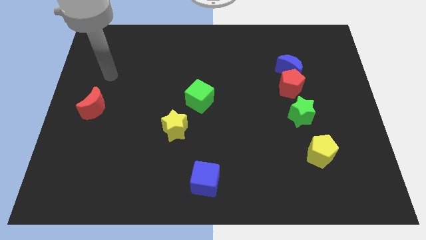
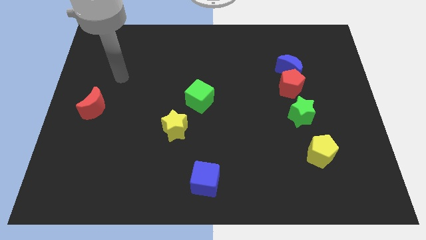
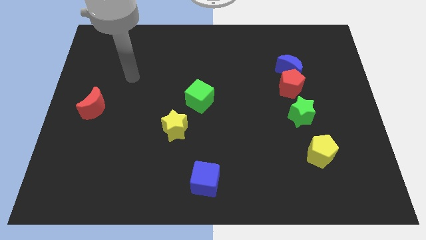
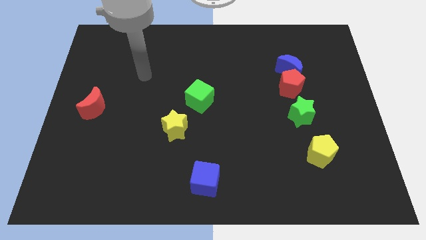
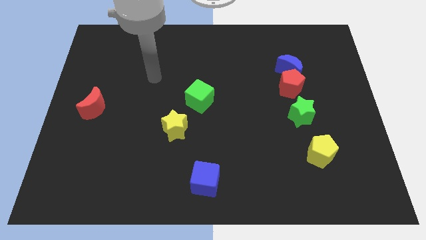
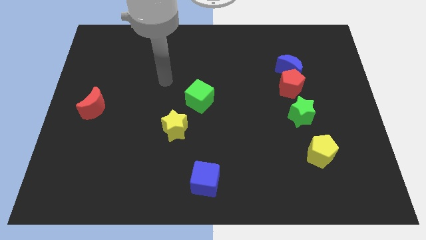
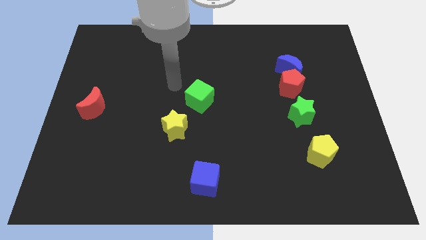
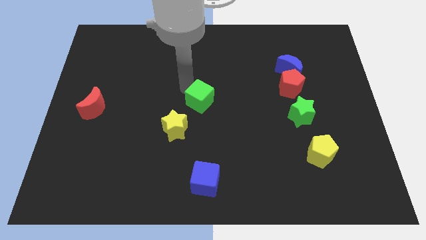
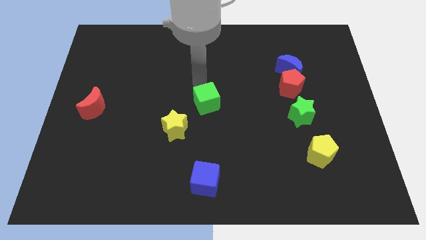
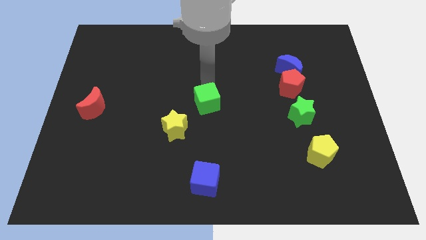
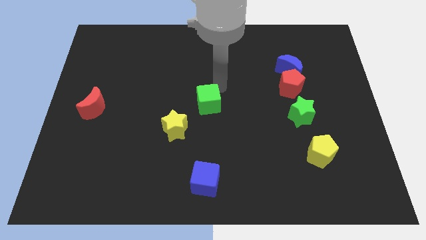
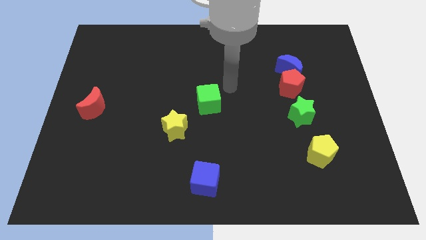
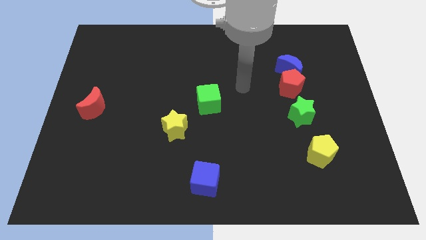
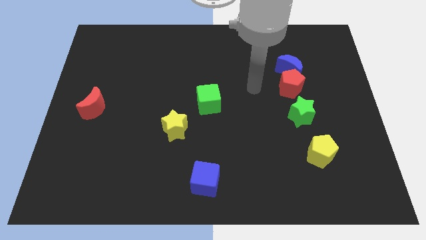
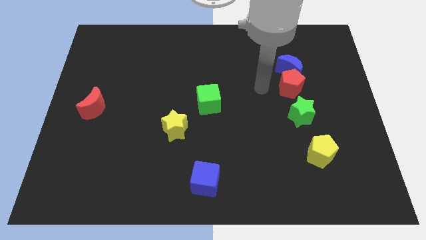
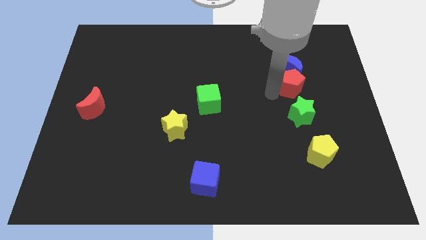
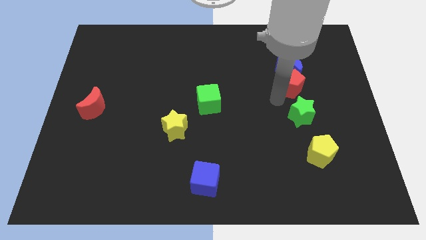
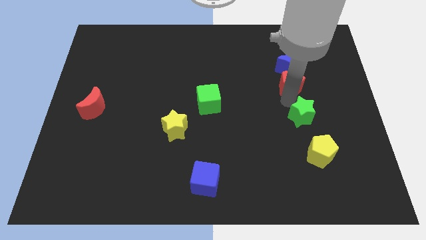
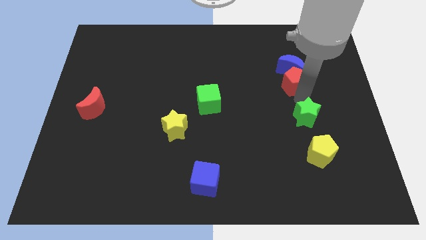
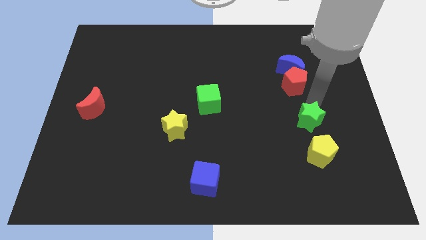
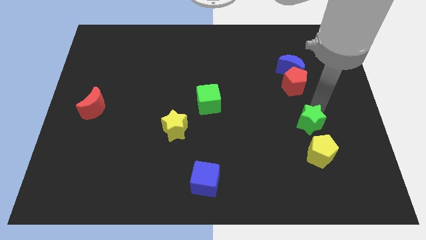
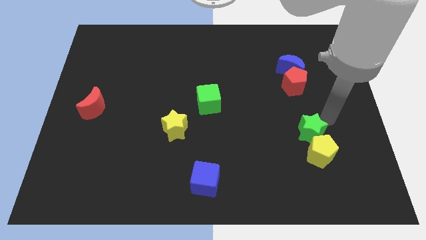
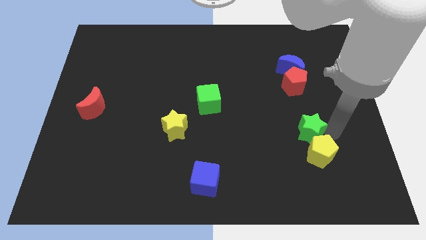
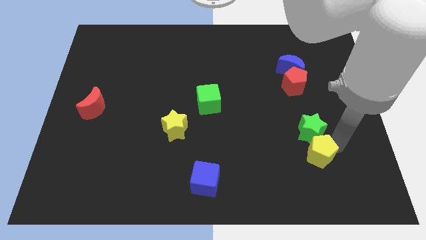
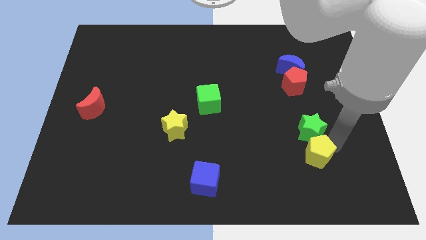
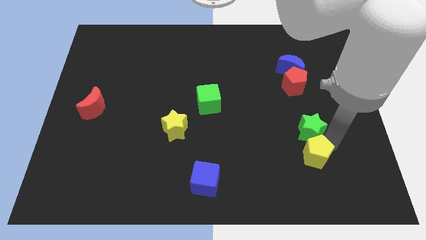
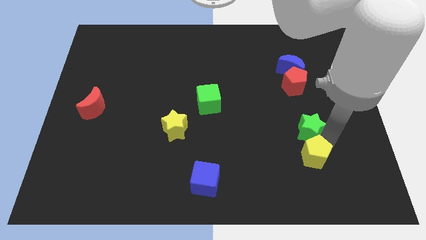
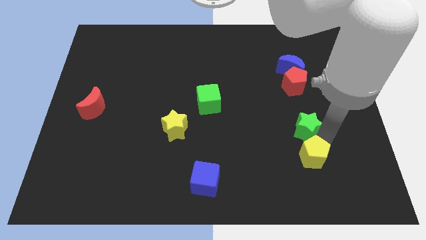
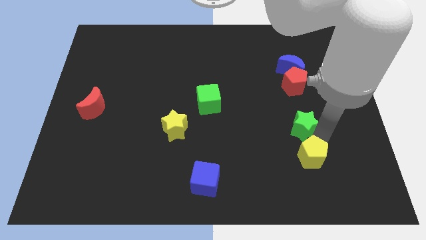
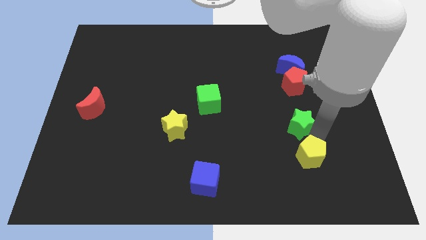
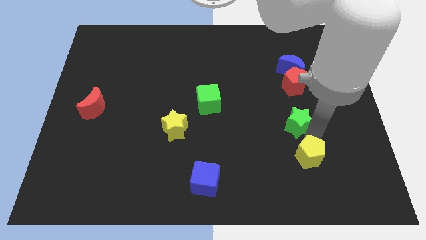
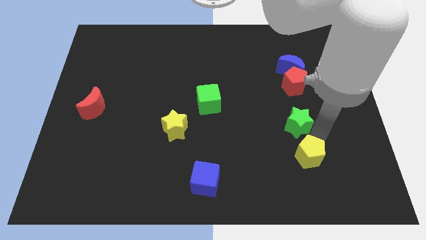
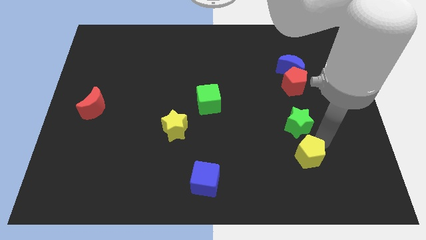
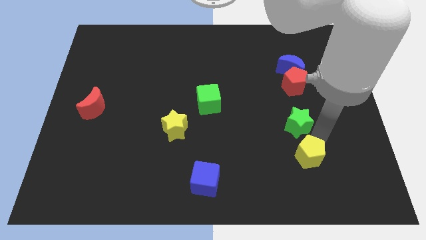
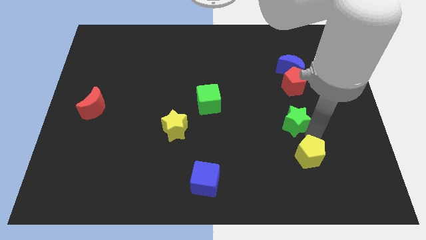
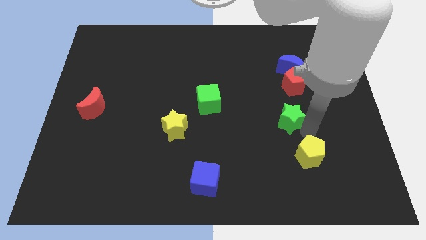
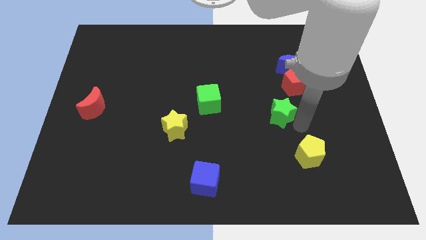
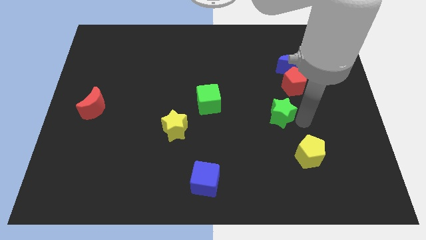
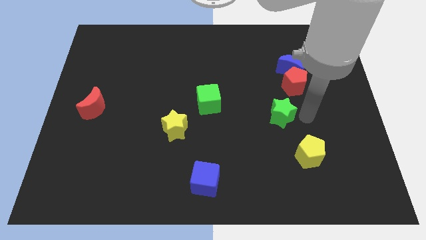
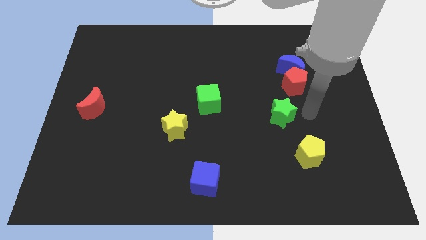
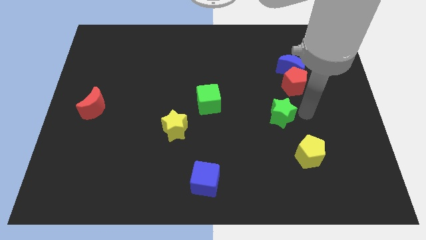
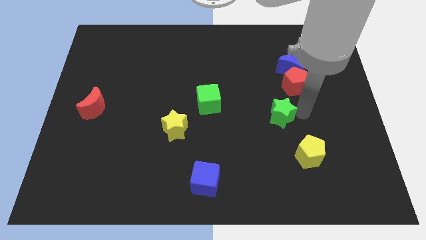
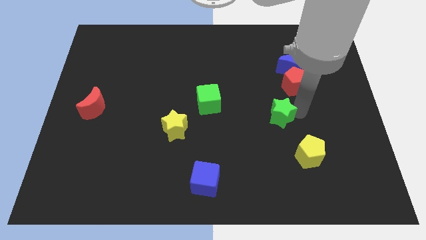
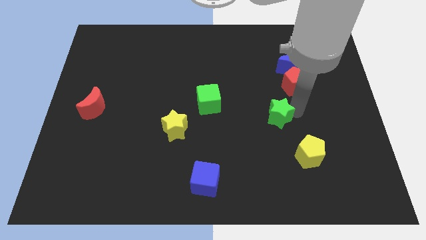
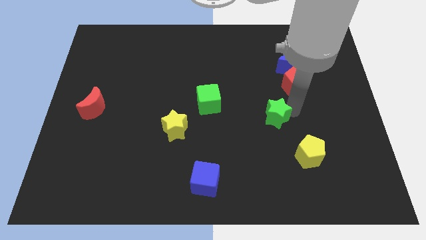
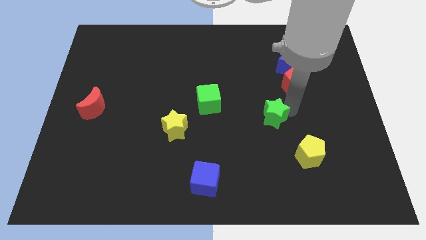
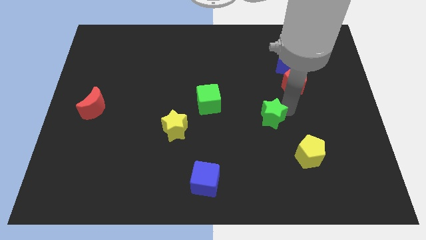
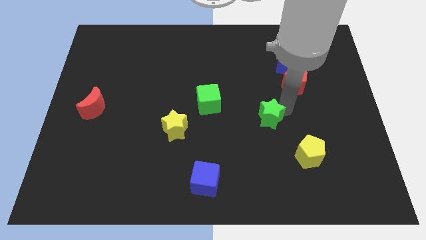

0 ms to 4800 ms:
slide the green star somewhat left

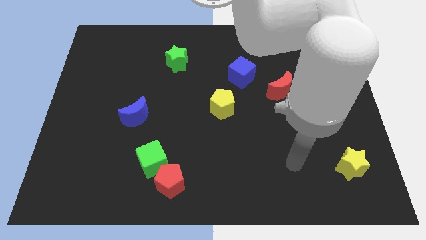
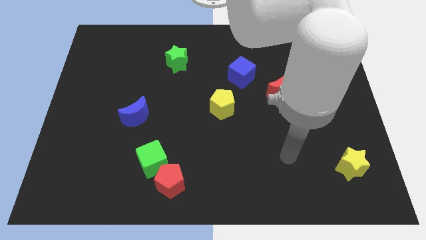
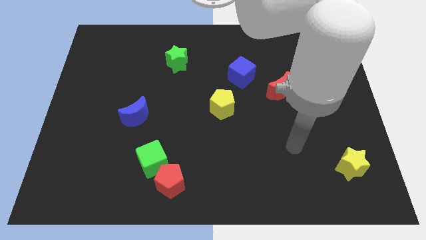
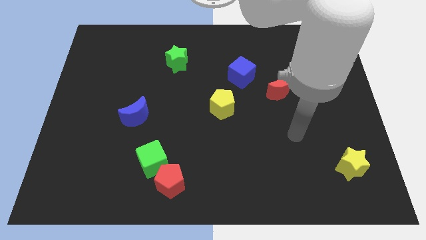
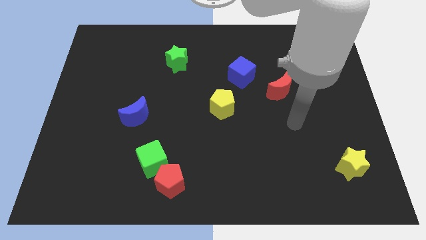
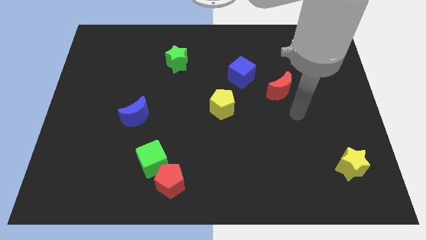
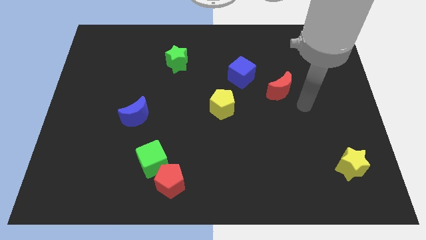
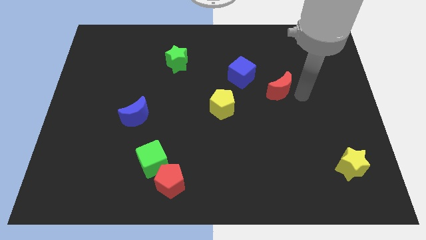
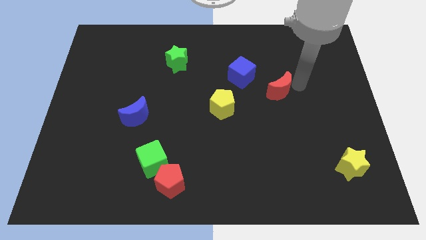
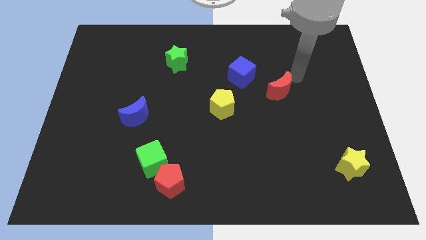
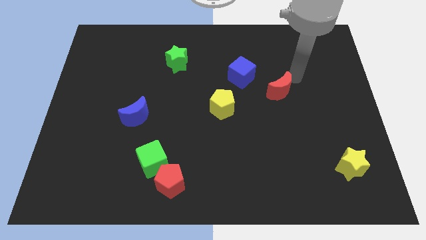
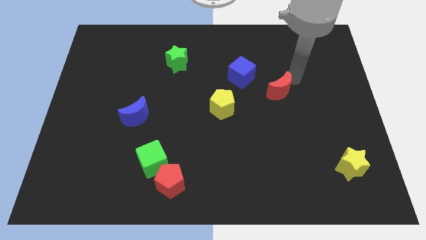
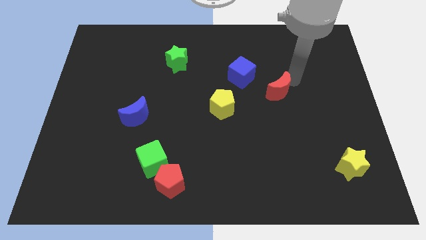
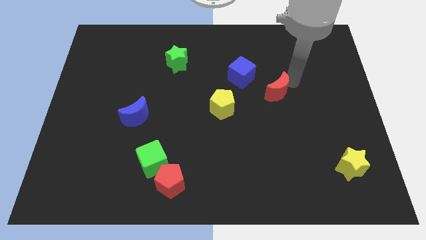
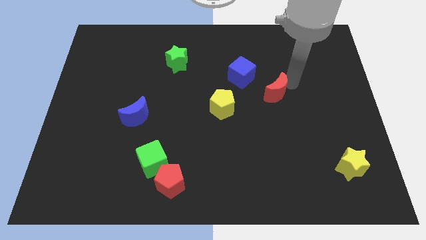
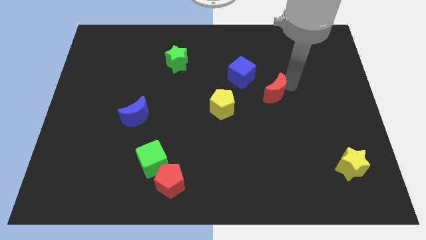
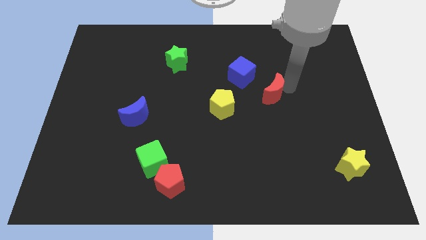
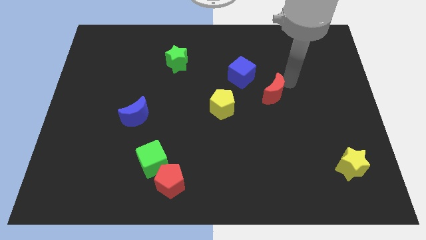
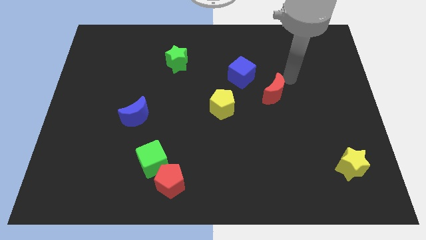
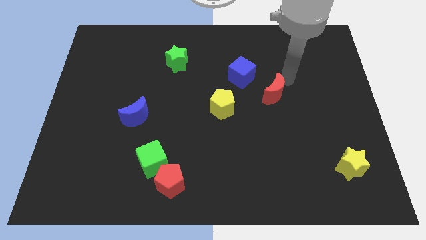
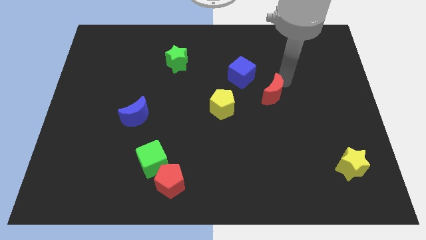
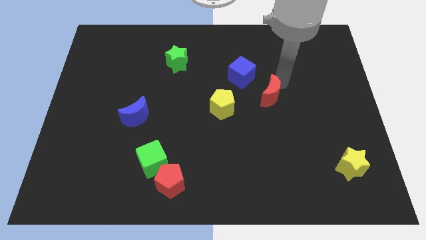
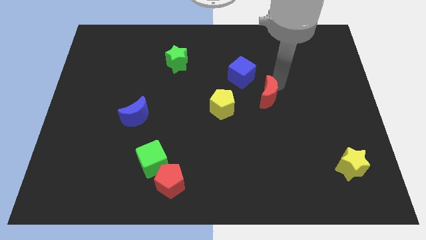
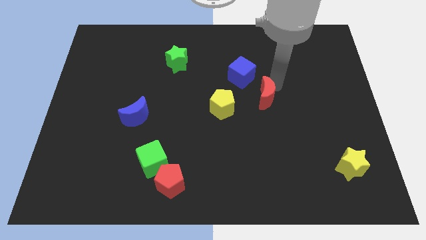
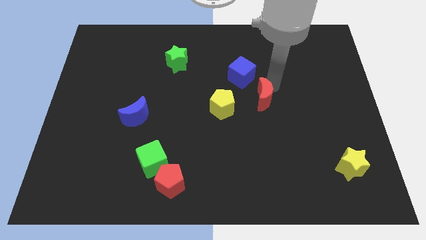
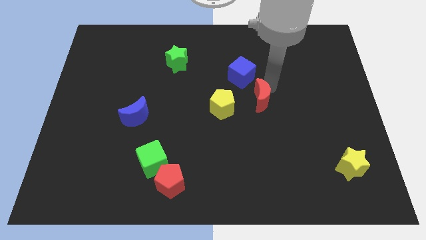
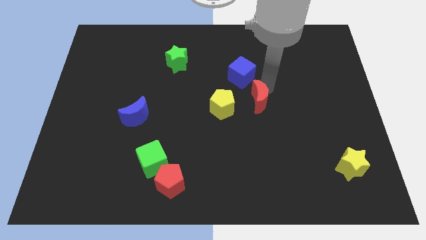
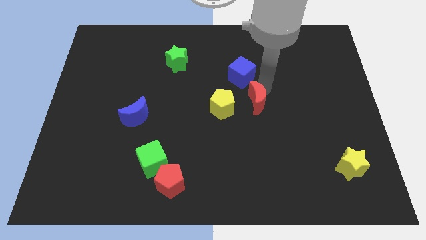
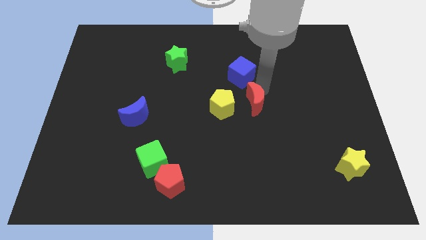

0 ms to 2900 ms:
slide the red moon downwards and to the left diagonally slightly

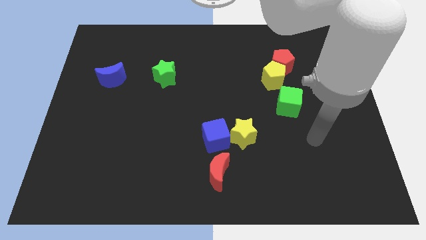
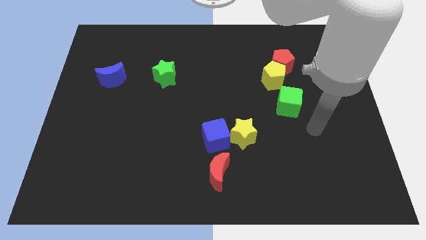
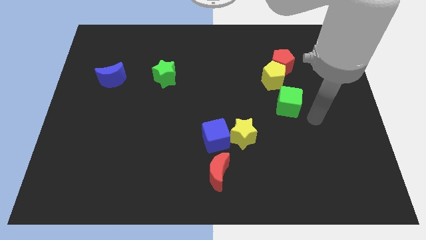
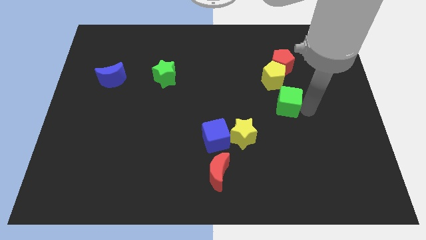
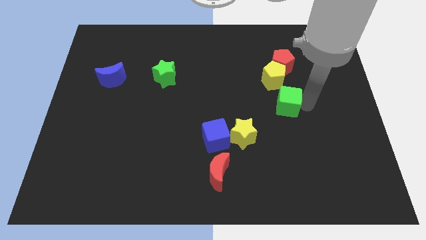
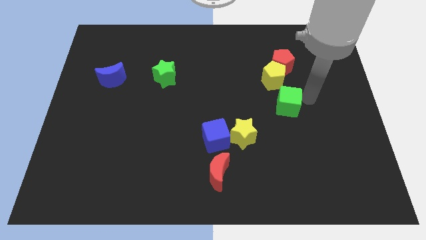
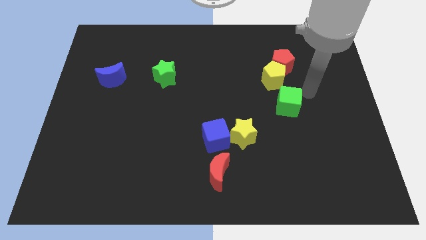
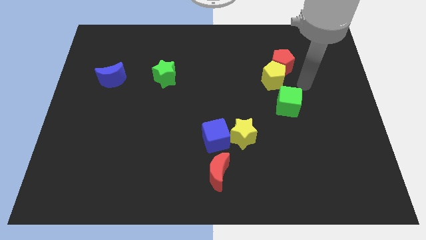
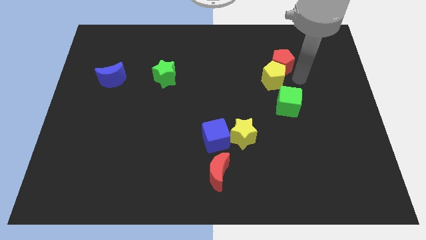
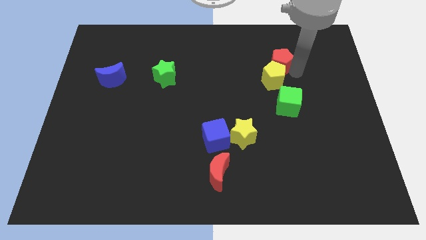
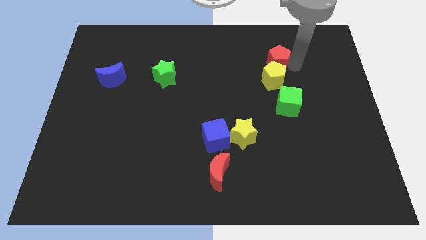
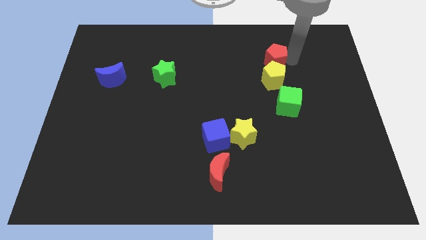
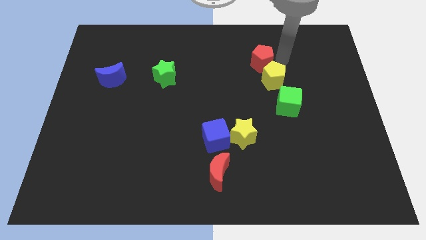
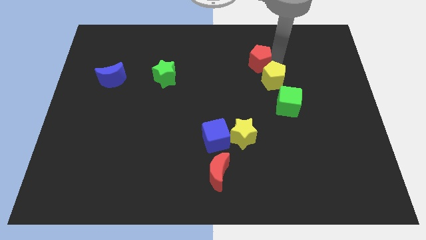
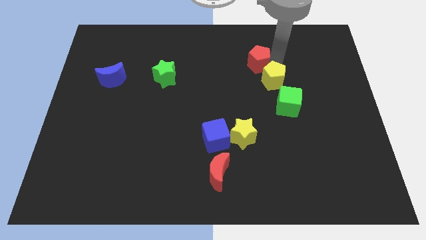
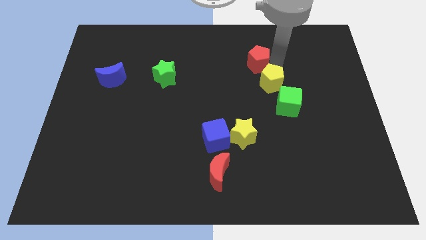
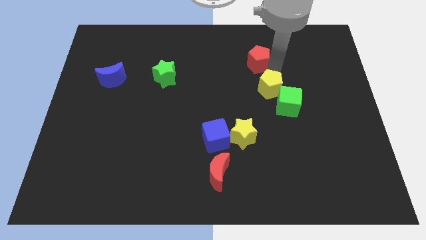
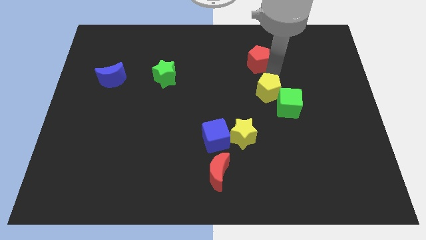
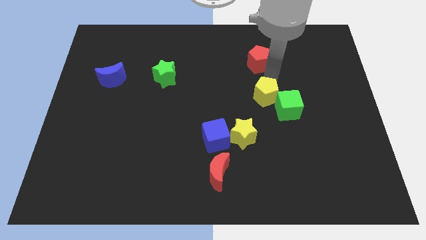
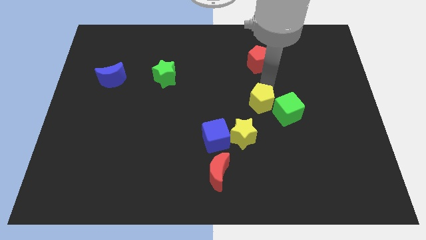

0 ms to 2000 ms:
slightly move the yellow pentagon downwards
